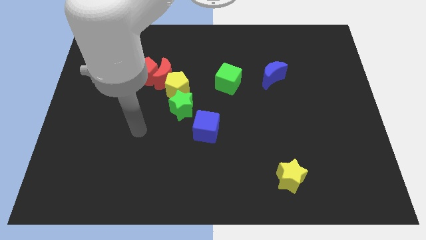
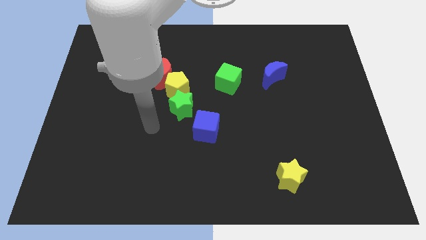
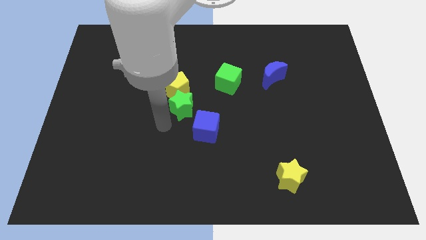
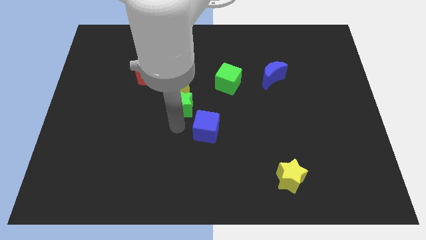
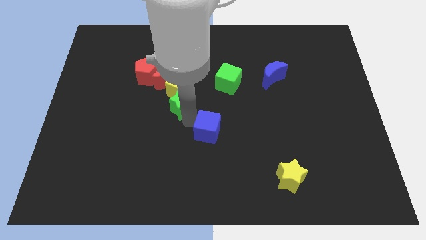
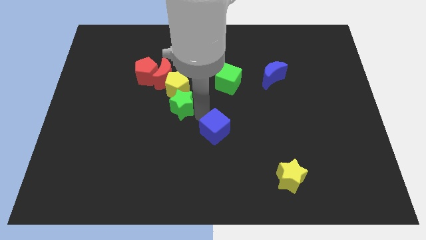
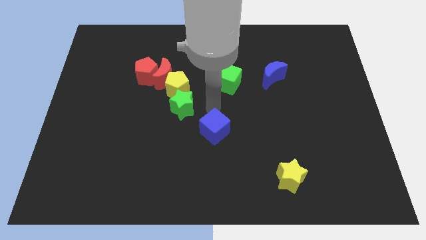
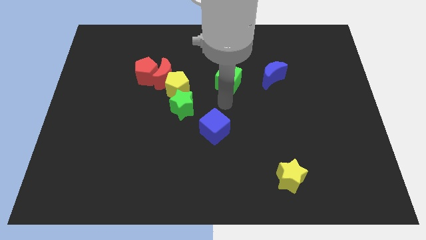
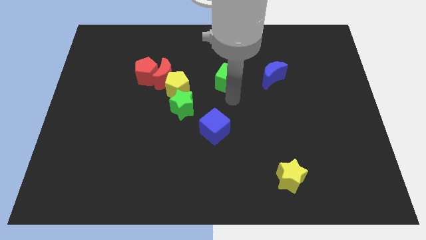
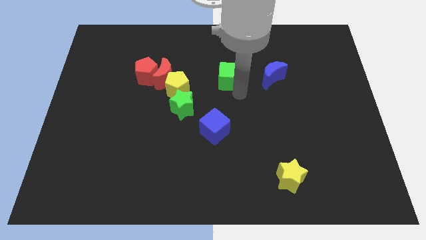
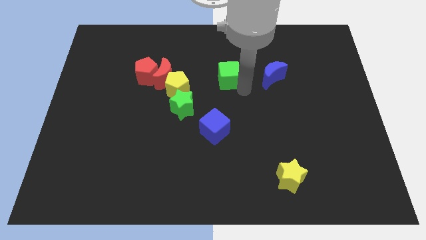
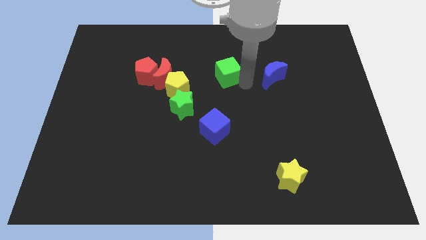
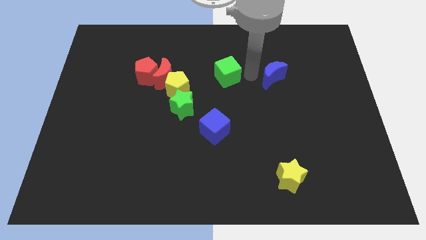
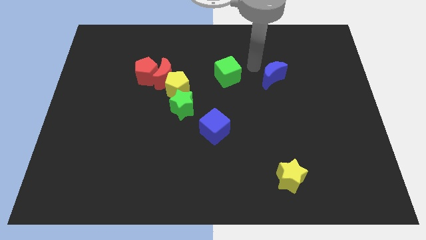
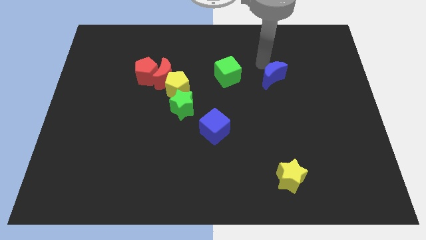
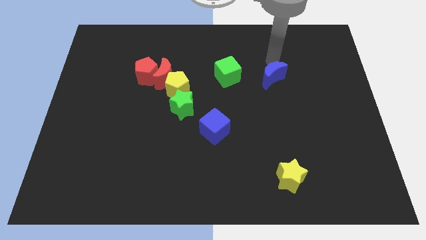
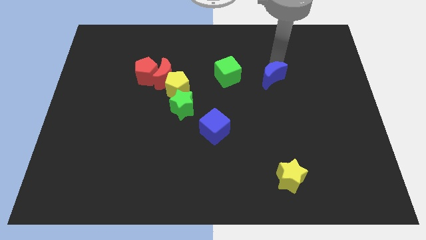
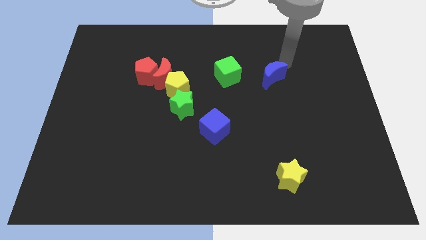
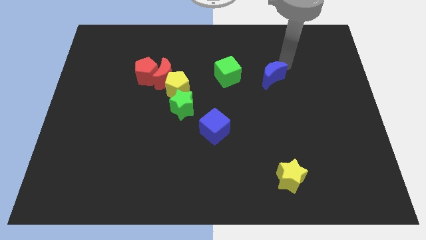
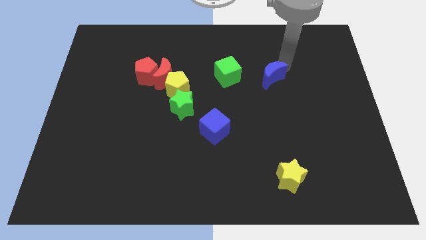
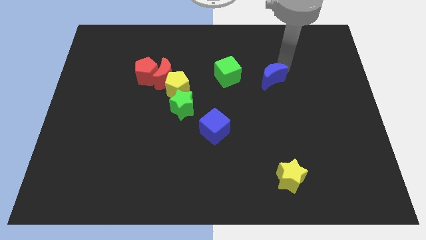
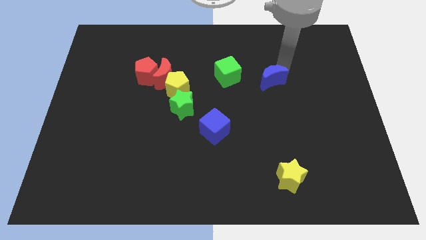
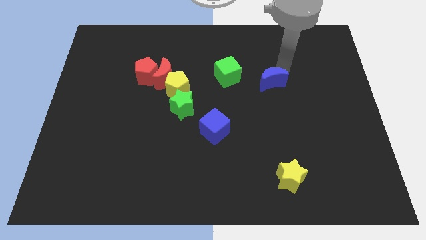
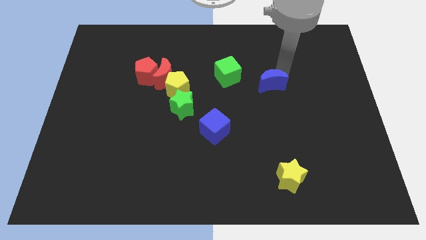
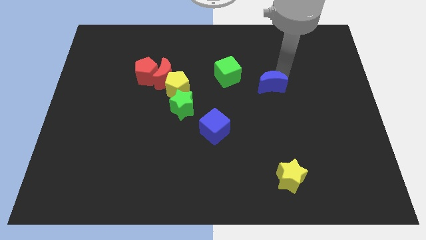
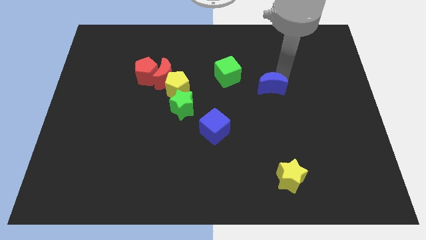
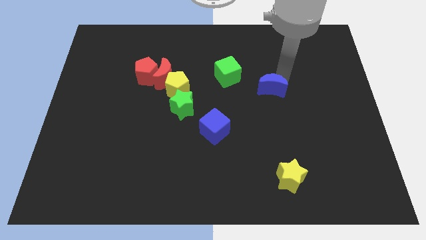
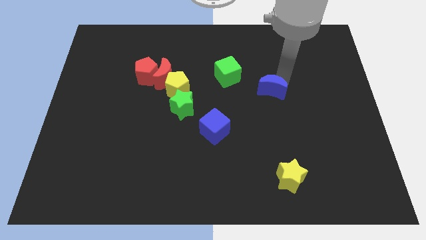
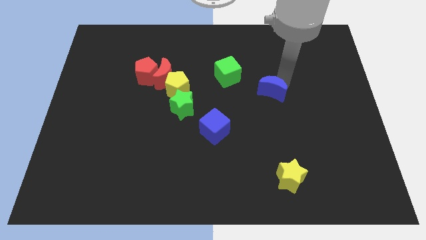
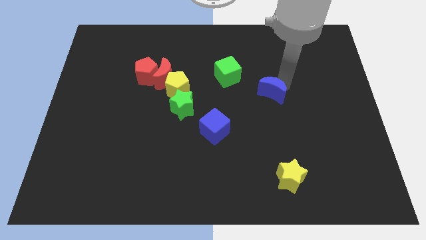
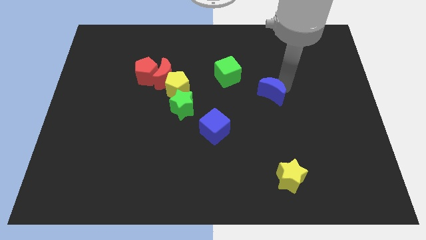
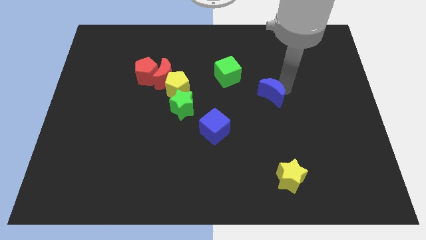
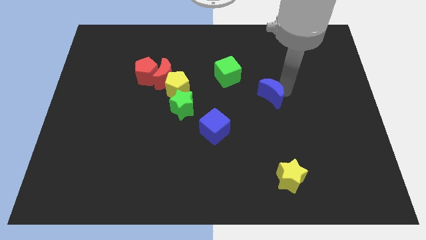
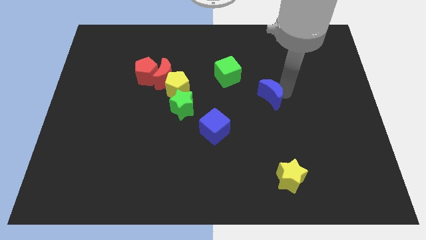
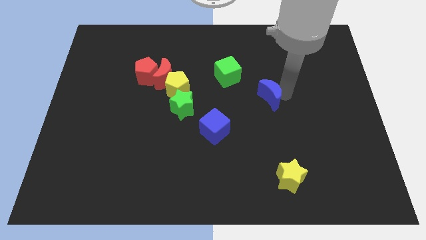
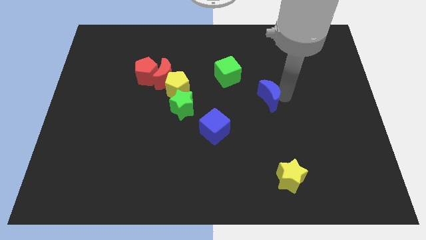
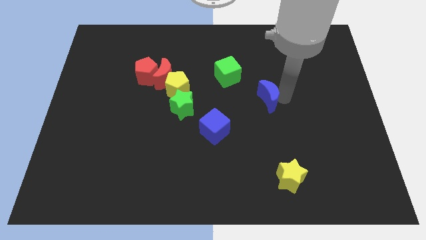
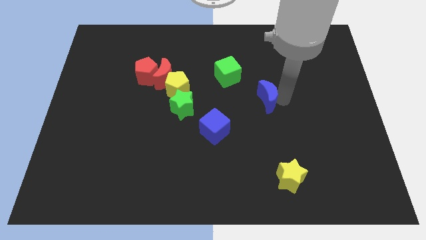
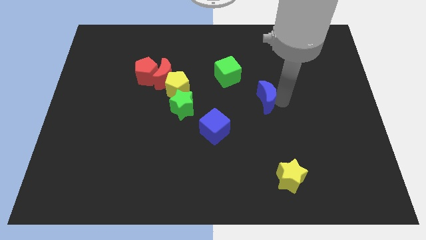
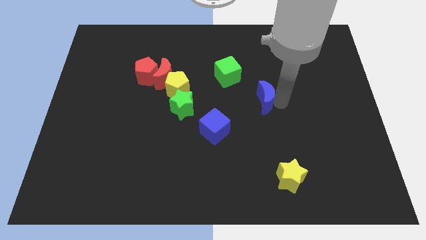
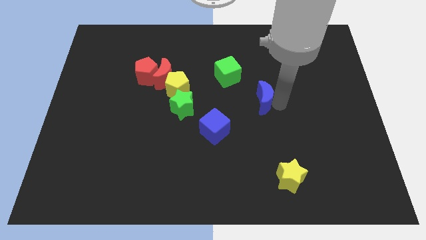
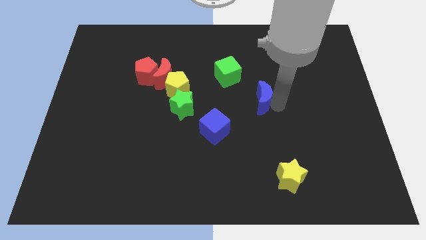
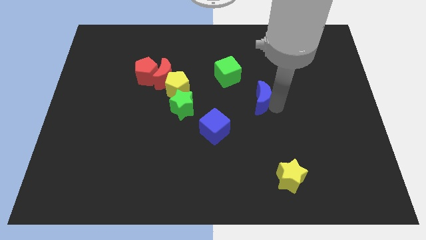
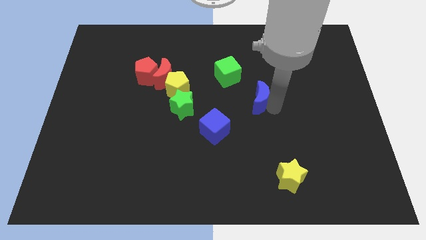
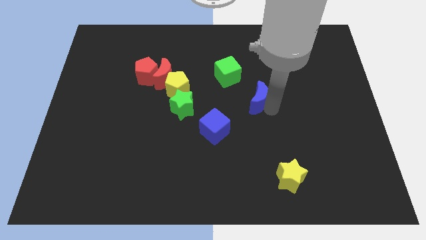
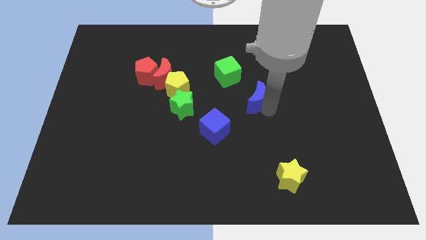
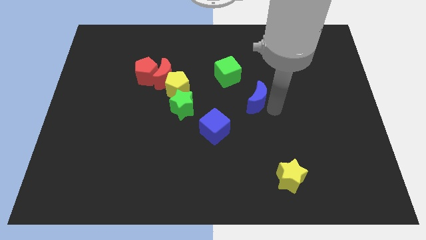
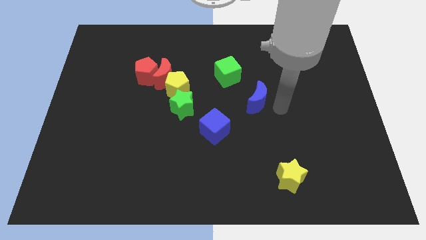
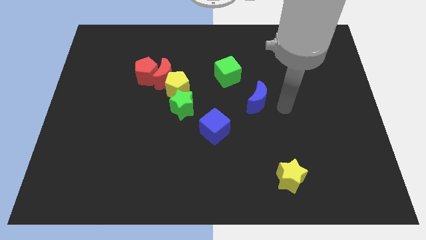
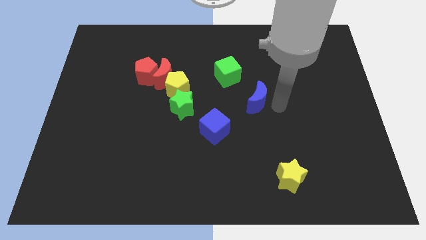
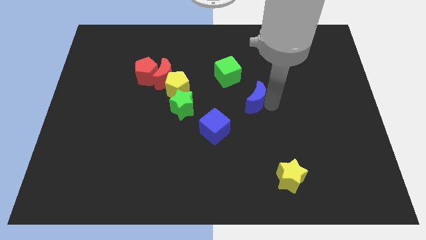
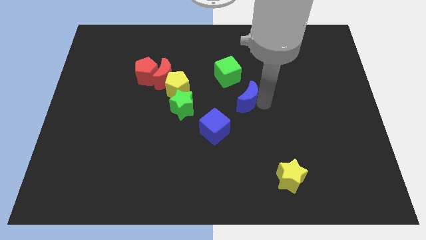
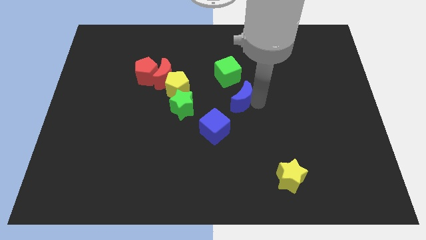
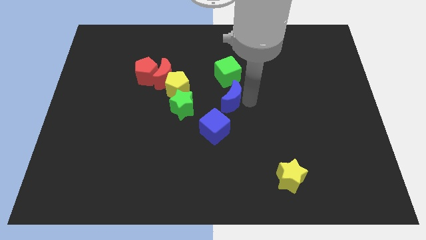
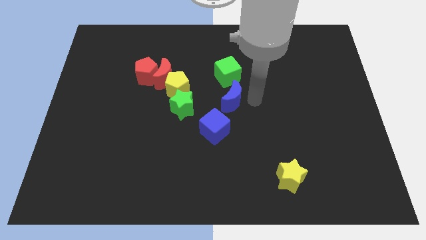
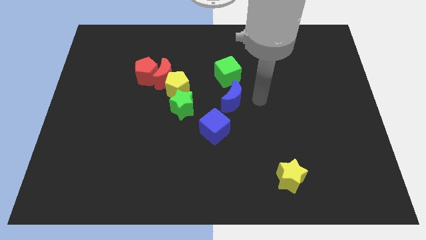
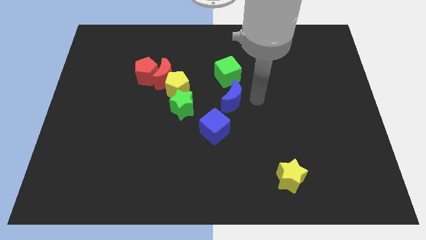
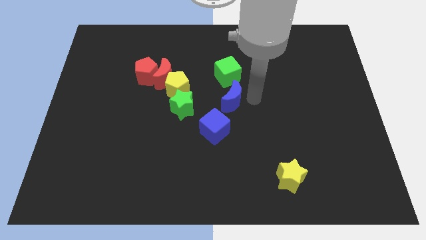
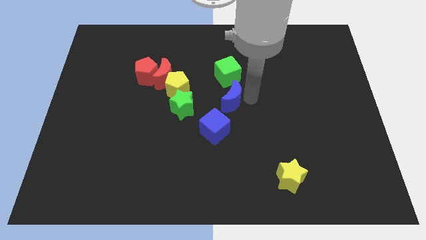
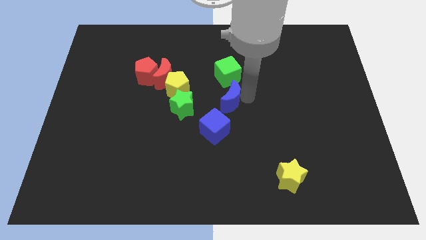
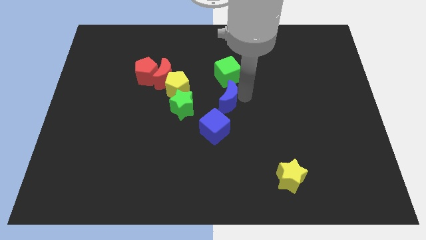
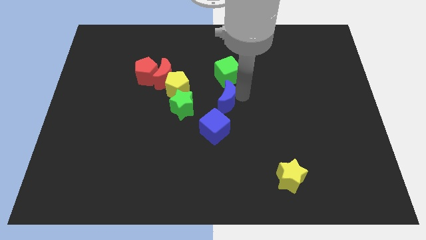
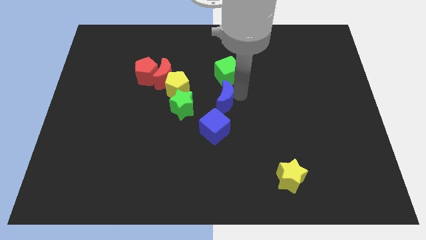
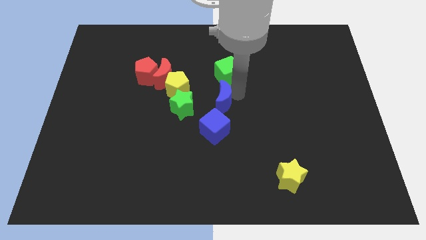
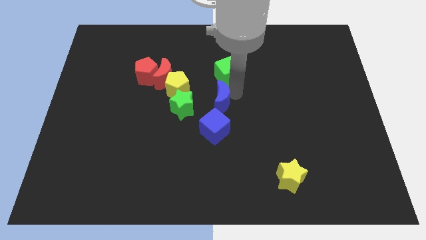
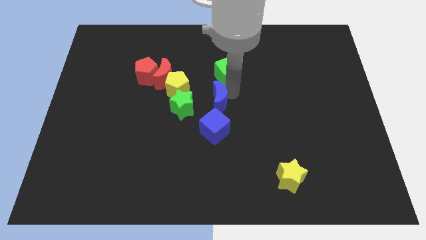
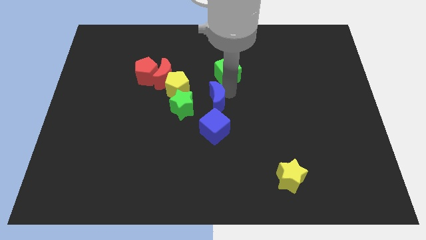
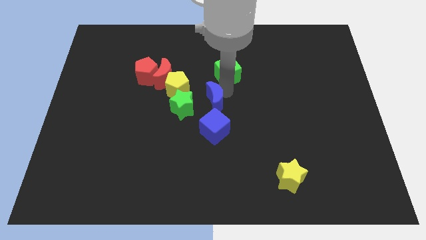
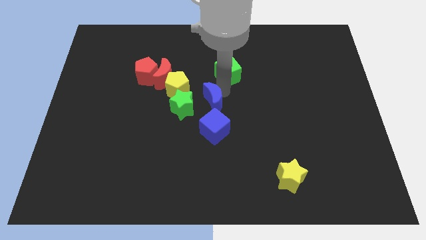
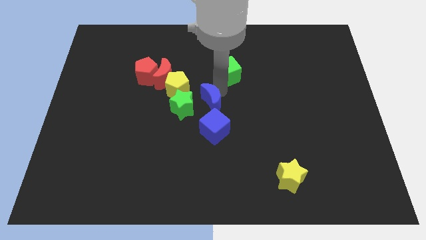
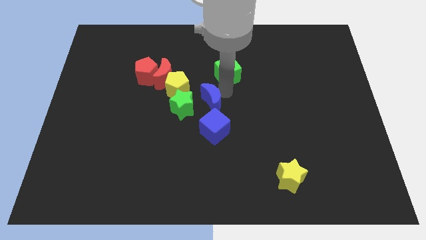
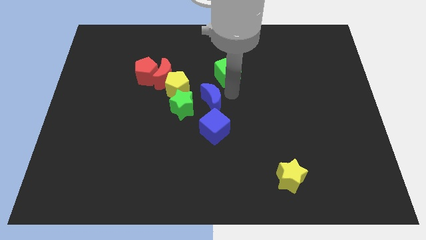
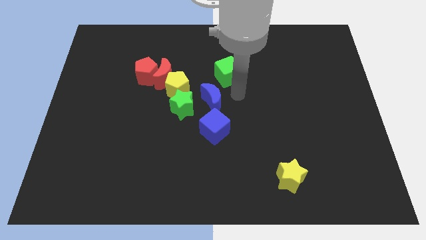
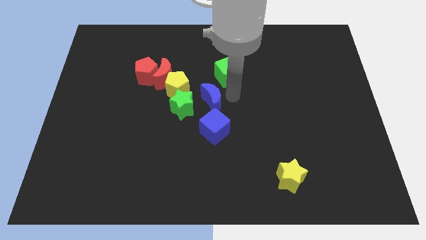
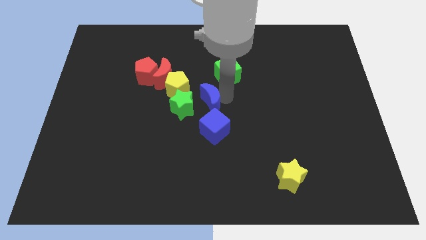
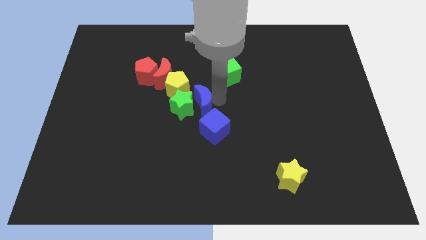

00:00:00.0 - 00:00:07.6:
slide the blue moon to the green star
